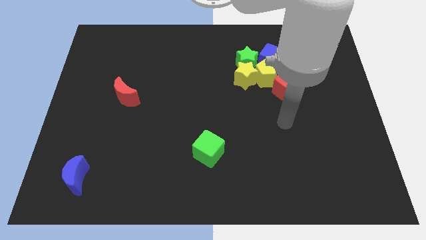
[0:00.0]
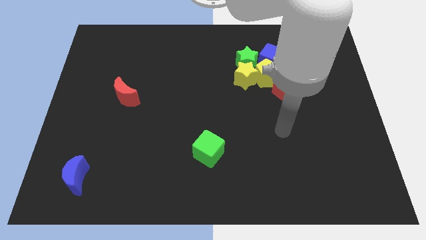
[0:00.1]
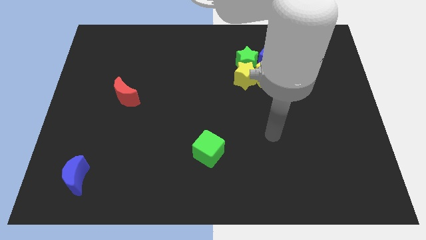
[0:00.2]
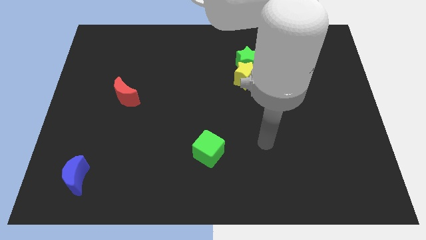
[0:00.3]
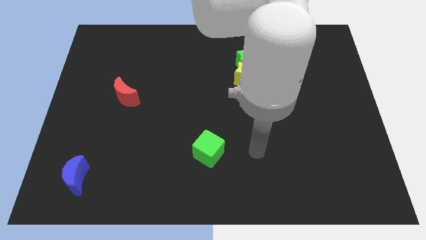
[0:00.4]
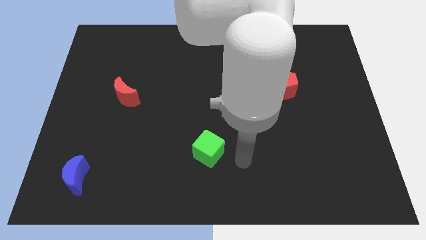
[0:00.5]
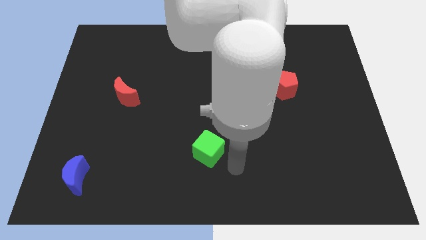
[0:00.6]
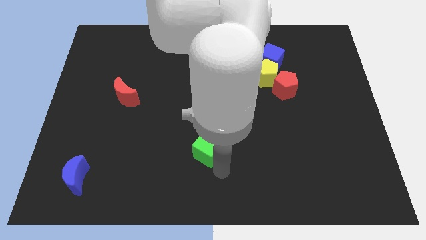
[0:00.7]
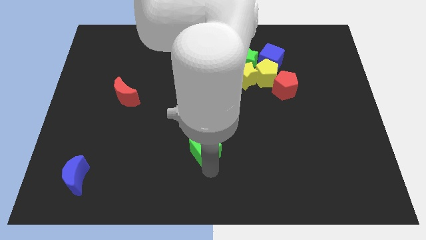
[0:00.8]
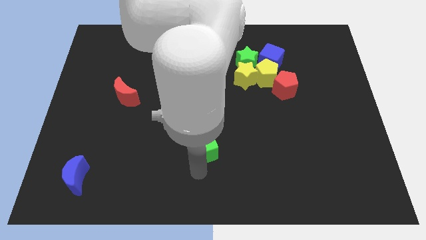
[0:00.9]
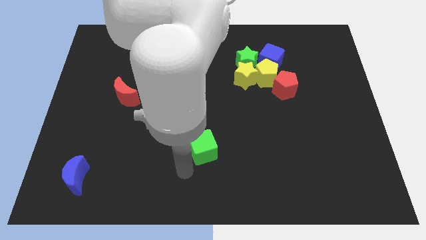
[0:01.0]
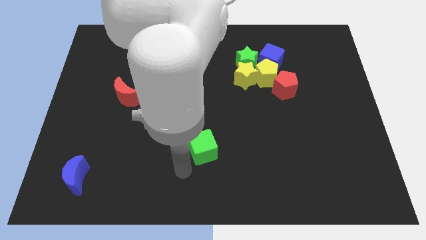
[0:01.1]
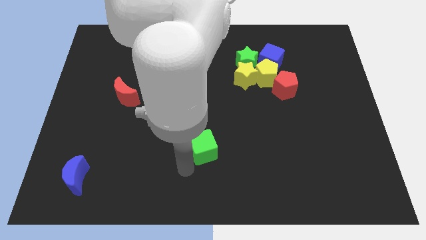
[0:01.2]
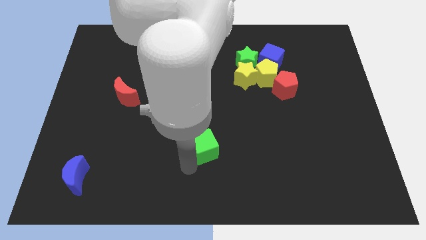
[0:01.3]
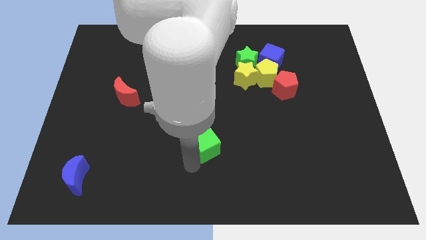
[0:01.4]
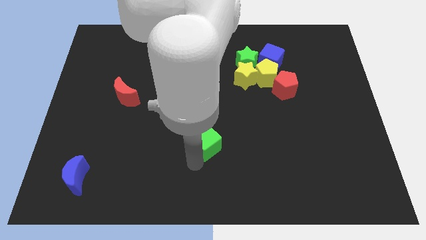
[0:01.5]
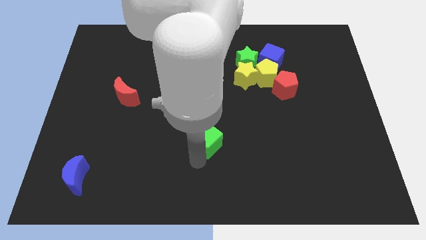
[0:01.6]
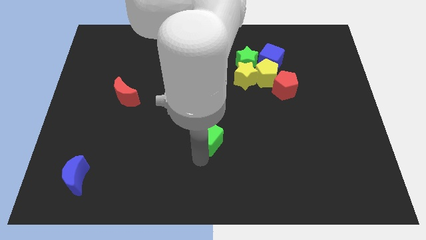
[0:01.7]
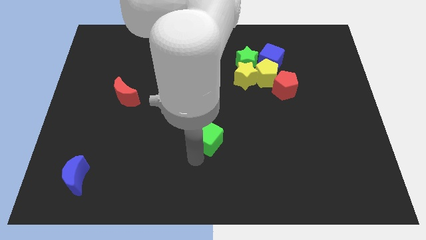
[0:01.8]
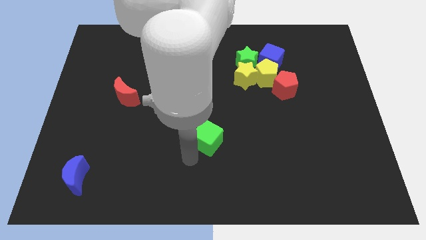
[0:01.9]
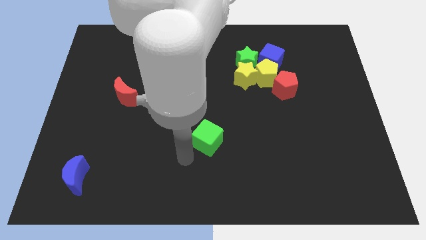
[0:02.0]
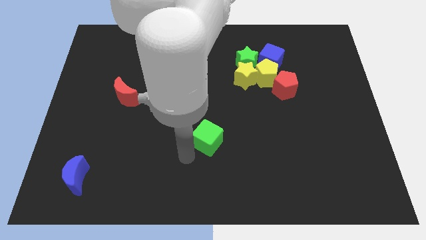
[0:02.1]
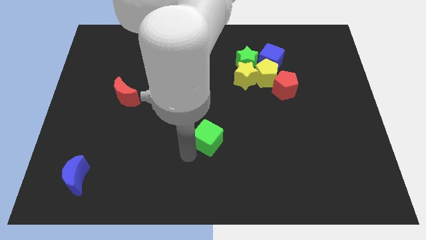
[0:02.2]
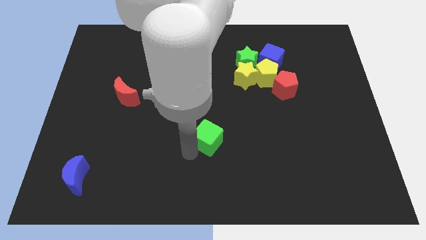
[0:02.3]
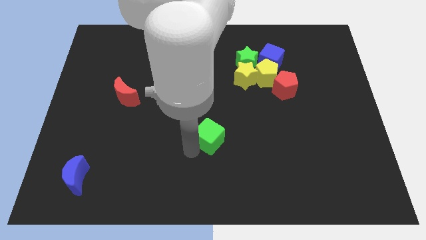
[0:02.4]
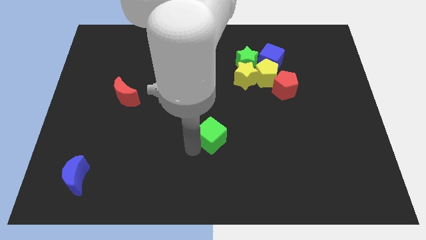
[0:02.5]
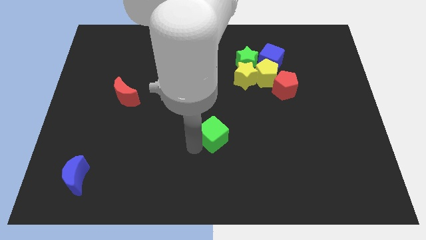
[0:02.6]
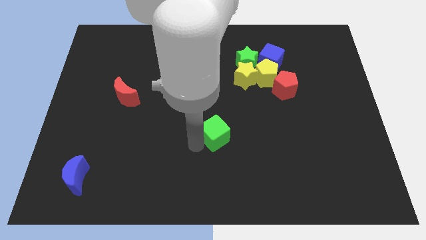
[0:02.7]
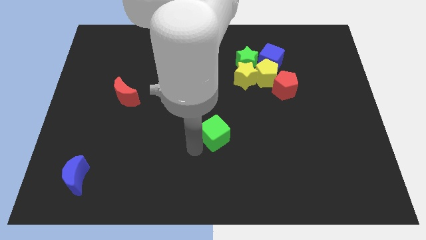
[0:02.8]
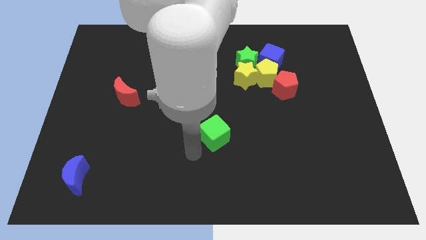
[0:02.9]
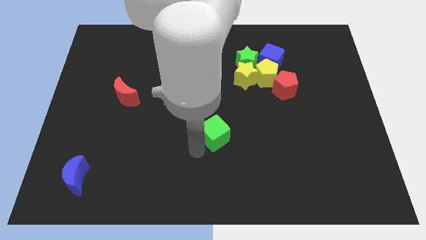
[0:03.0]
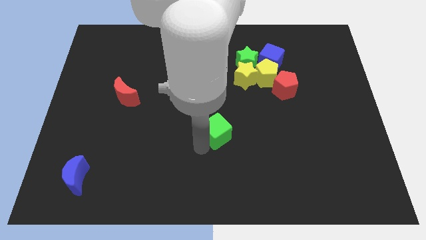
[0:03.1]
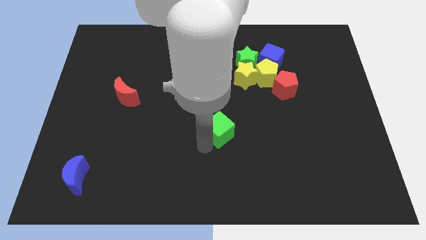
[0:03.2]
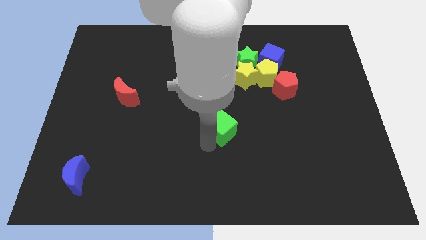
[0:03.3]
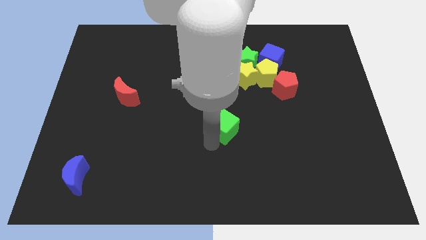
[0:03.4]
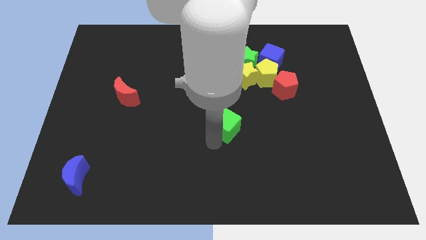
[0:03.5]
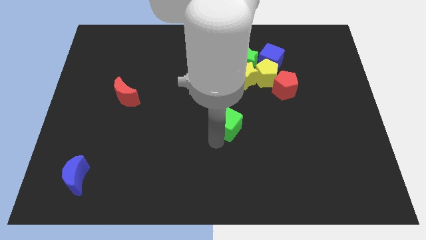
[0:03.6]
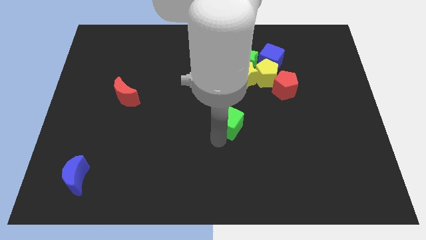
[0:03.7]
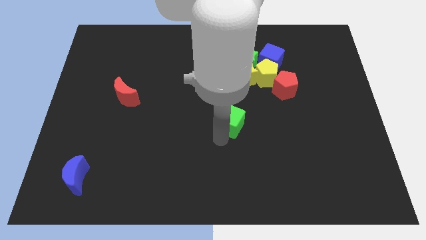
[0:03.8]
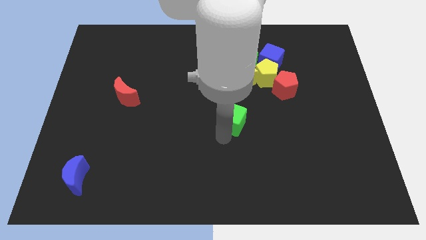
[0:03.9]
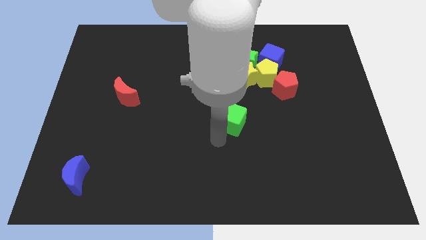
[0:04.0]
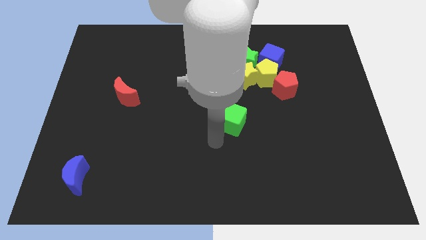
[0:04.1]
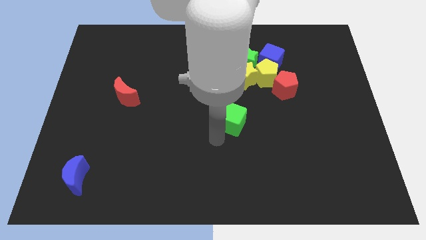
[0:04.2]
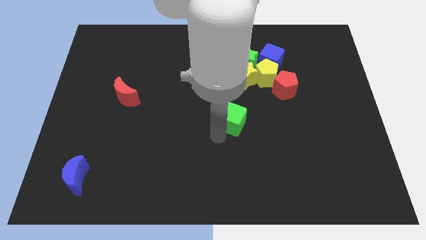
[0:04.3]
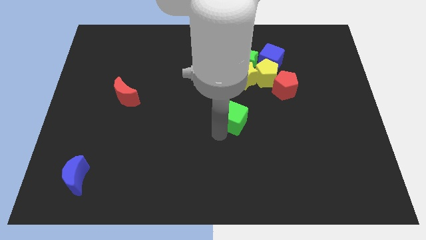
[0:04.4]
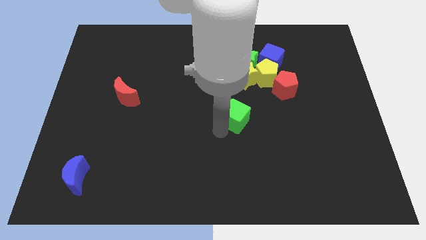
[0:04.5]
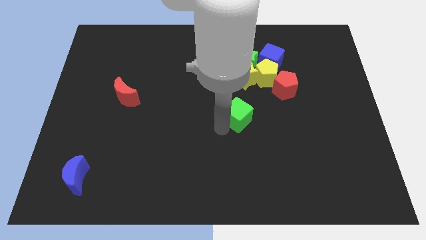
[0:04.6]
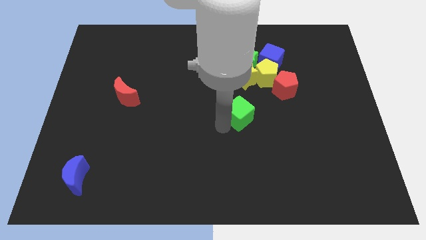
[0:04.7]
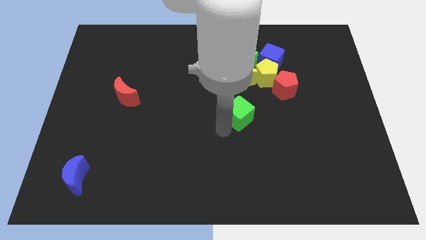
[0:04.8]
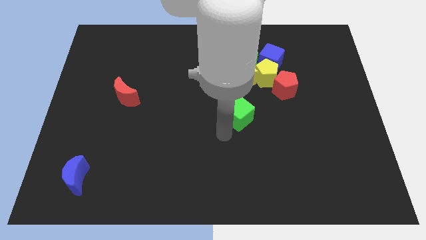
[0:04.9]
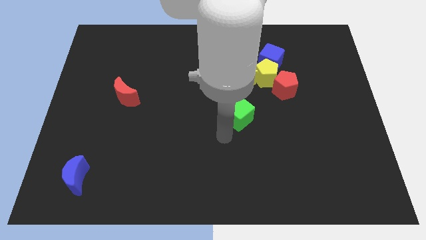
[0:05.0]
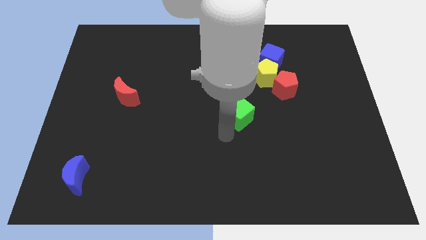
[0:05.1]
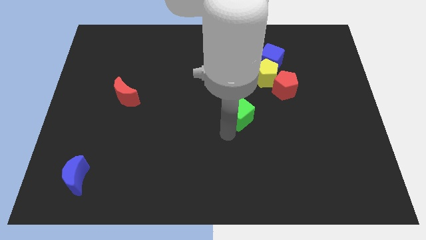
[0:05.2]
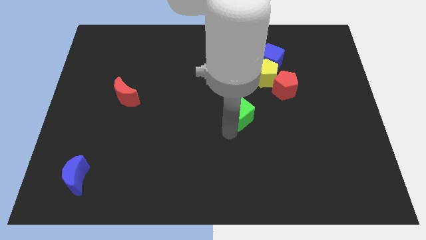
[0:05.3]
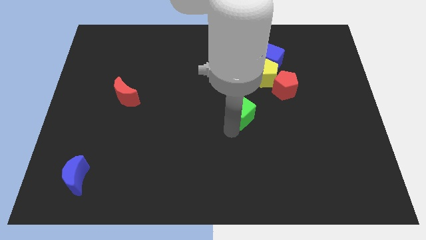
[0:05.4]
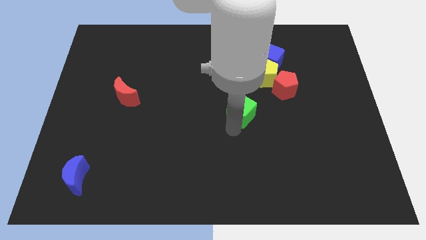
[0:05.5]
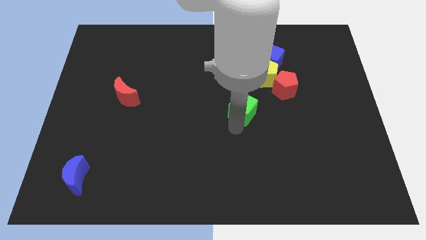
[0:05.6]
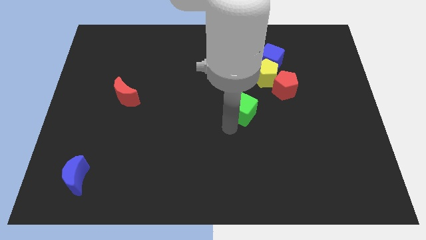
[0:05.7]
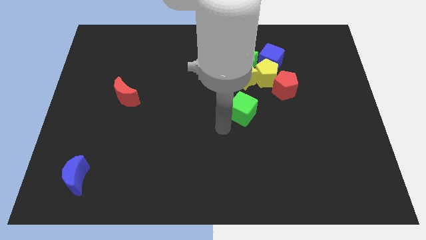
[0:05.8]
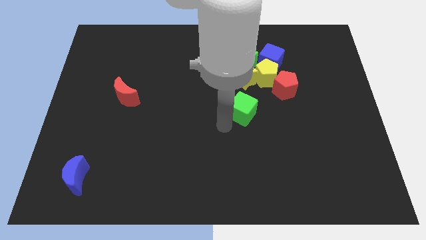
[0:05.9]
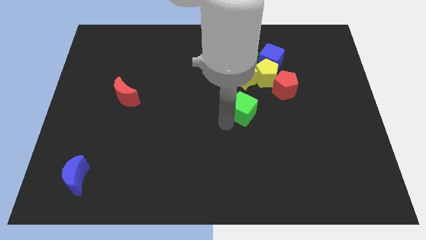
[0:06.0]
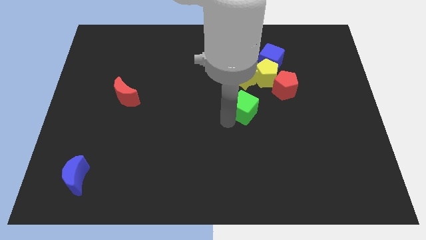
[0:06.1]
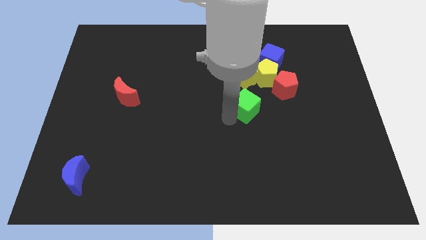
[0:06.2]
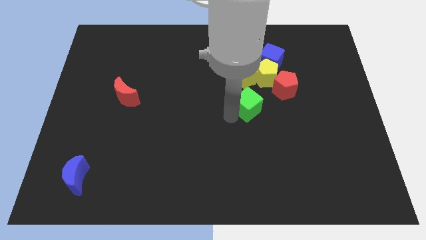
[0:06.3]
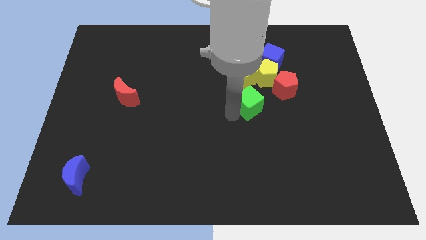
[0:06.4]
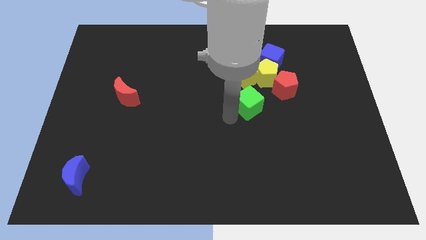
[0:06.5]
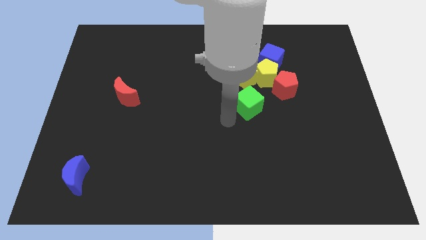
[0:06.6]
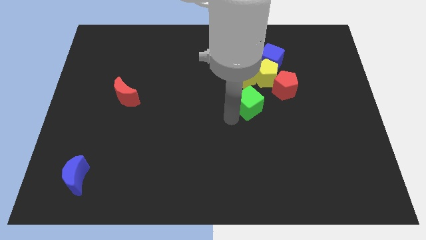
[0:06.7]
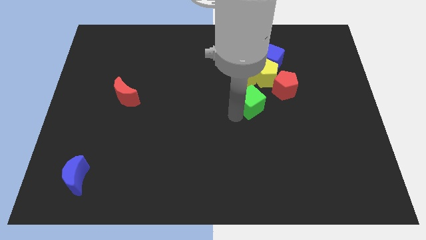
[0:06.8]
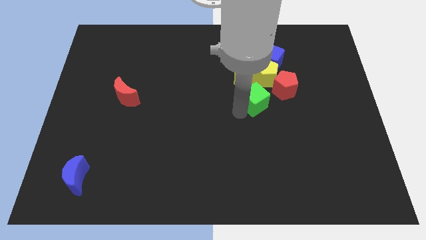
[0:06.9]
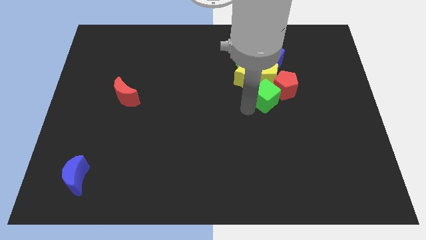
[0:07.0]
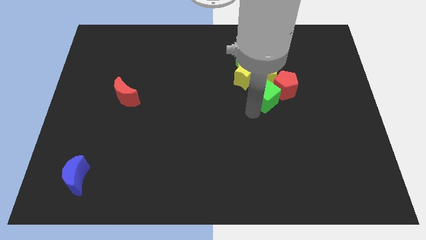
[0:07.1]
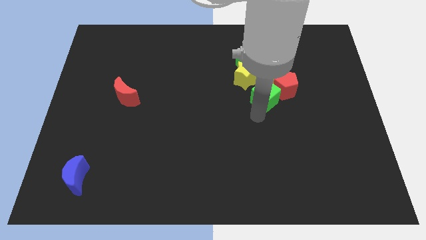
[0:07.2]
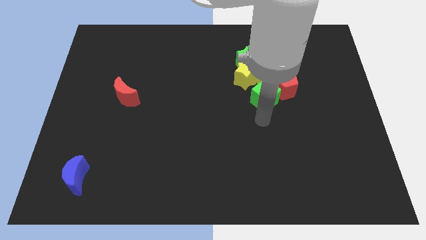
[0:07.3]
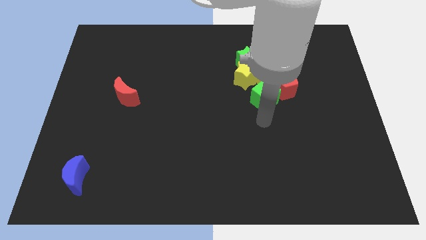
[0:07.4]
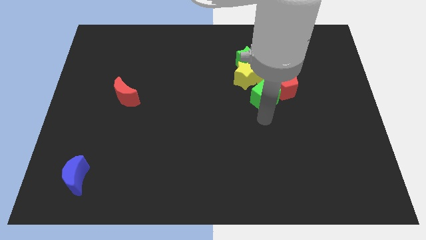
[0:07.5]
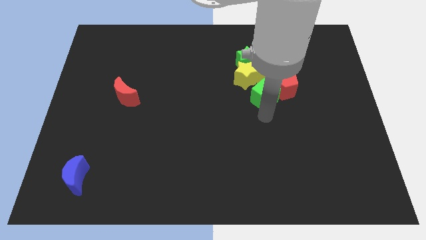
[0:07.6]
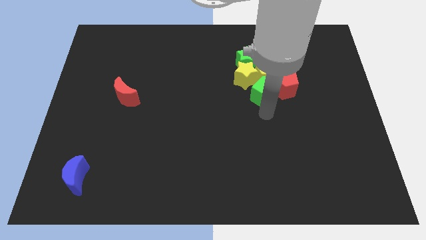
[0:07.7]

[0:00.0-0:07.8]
move the green cube next to the yellow pentagon
